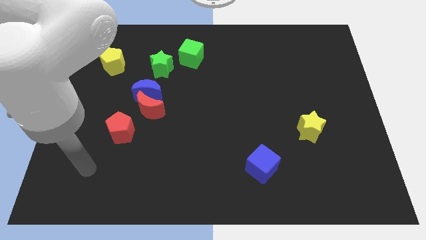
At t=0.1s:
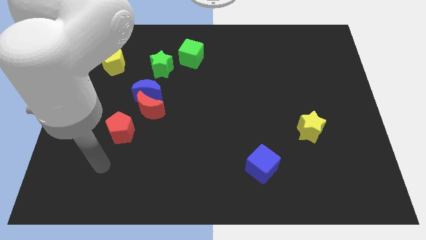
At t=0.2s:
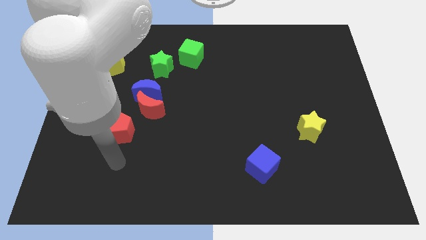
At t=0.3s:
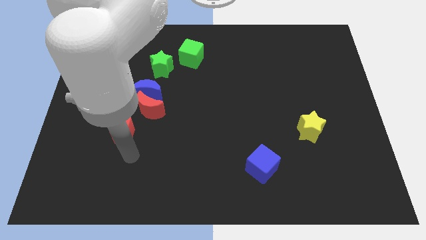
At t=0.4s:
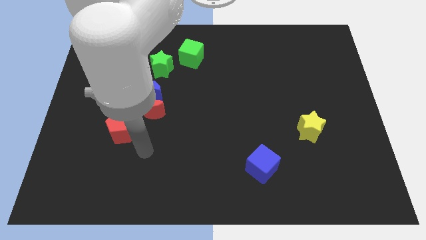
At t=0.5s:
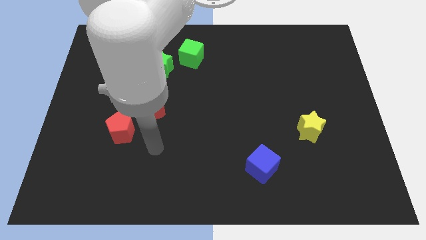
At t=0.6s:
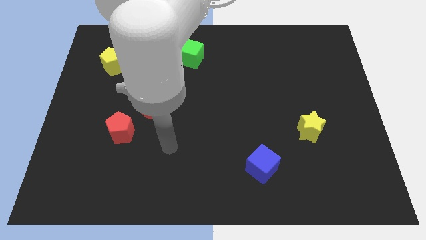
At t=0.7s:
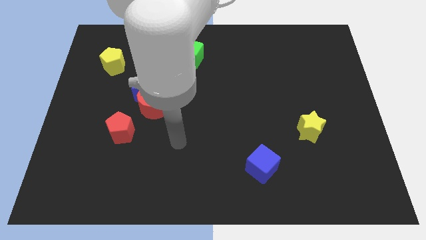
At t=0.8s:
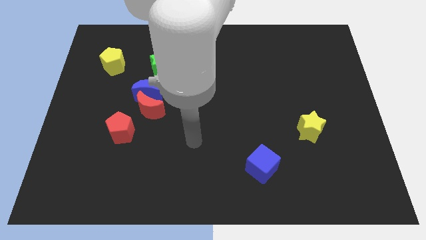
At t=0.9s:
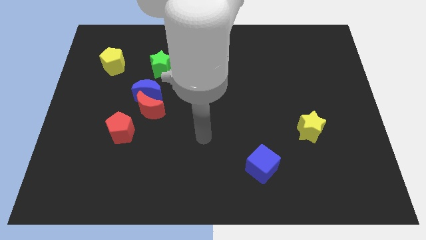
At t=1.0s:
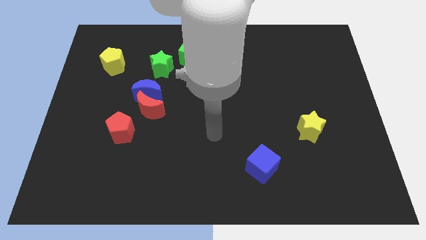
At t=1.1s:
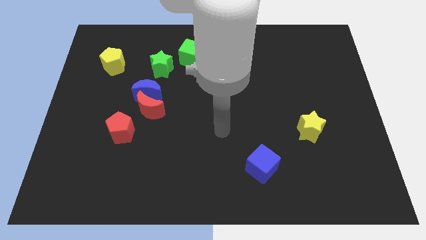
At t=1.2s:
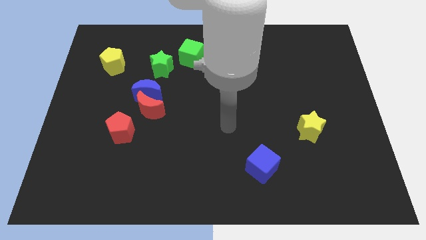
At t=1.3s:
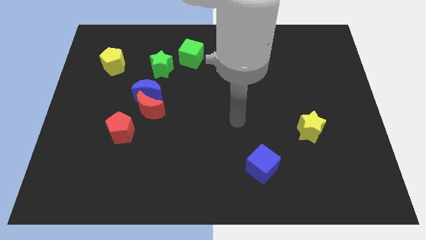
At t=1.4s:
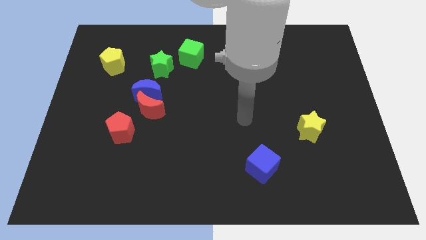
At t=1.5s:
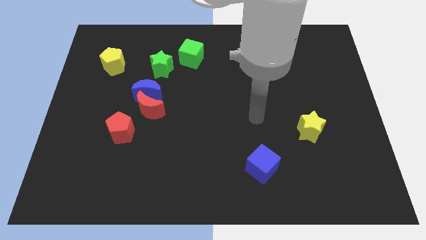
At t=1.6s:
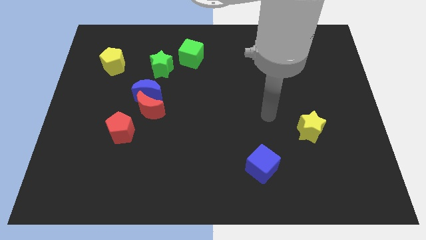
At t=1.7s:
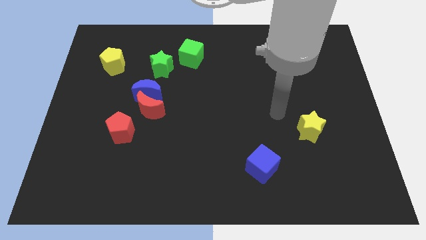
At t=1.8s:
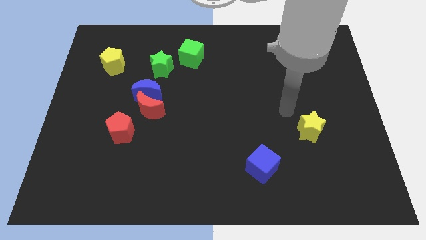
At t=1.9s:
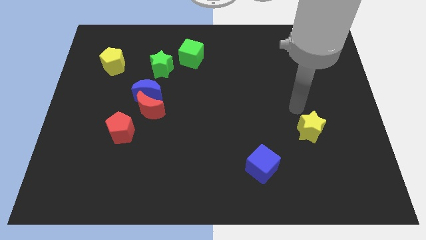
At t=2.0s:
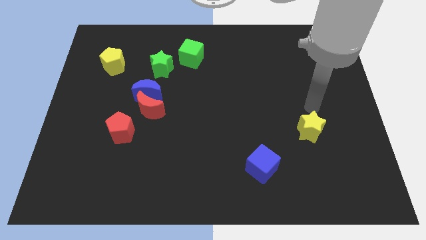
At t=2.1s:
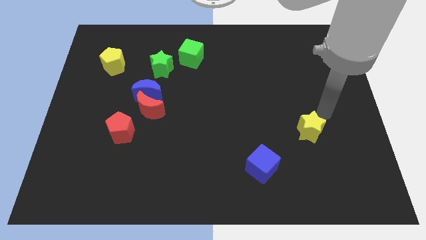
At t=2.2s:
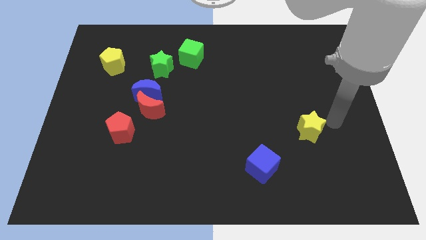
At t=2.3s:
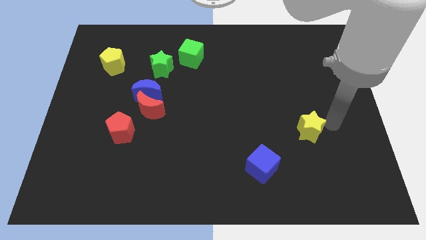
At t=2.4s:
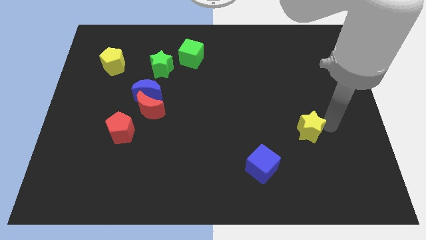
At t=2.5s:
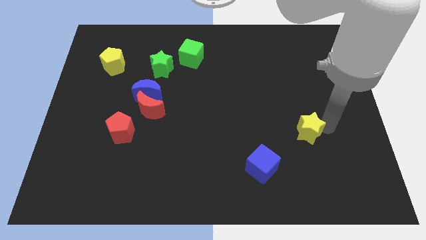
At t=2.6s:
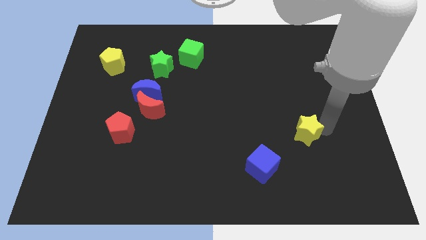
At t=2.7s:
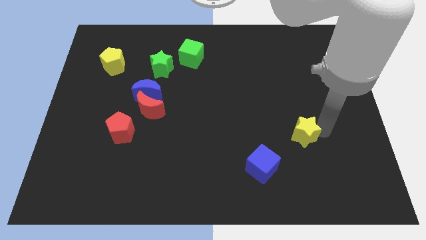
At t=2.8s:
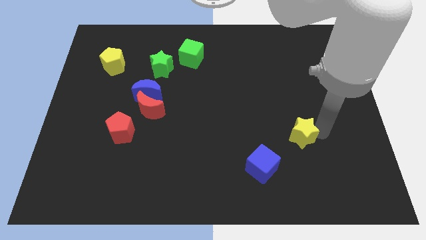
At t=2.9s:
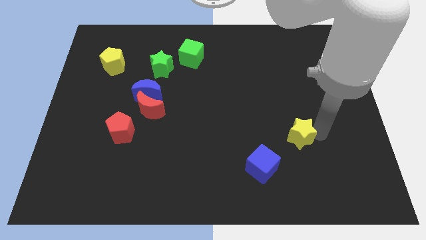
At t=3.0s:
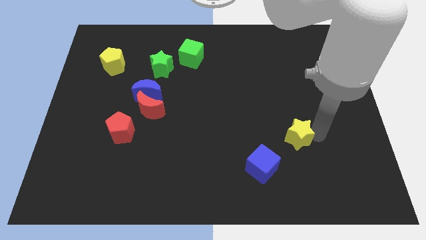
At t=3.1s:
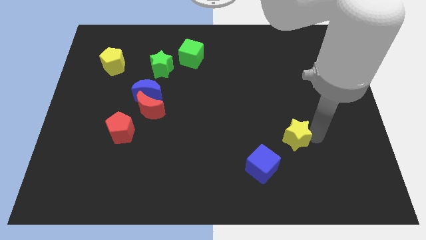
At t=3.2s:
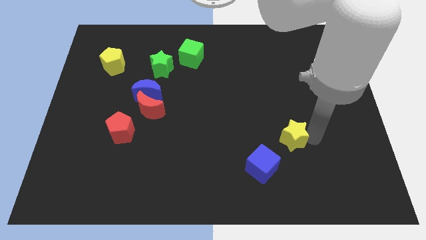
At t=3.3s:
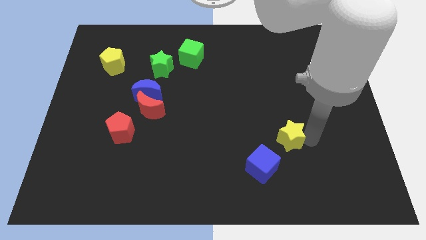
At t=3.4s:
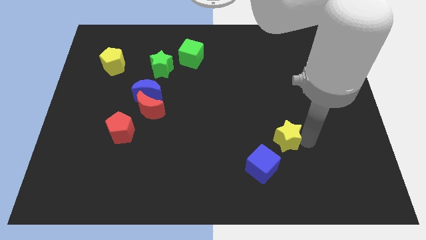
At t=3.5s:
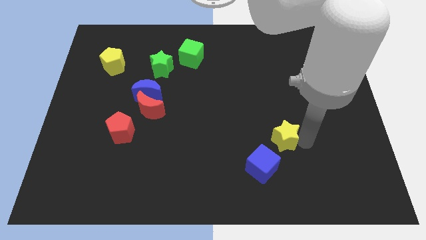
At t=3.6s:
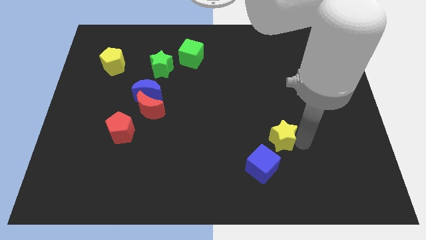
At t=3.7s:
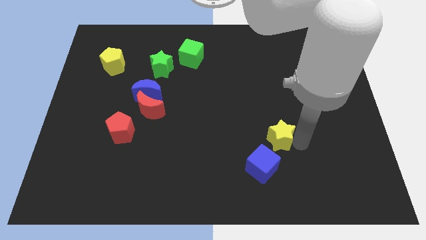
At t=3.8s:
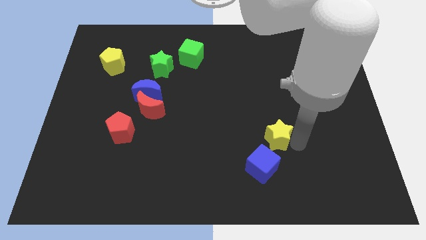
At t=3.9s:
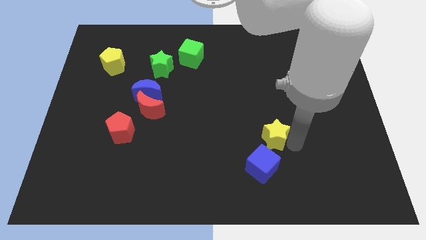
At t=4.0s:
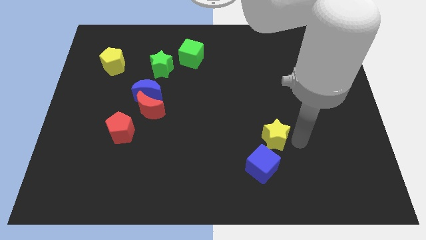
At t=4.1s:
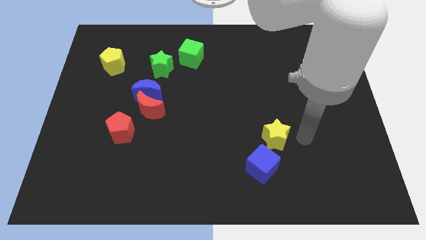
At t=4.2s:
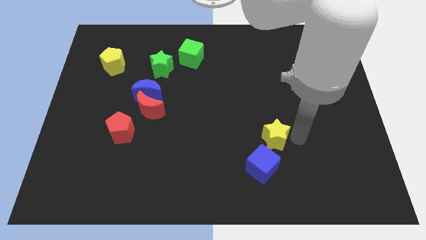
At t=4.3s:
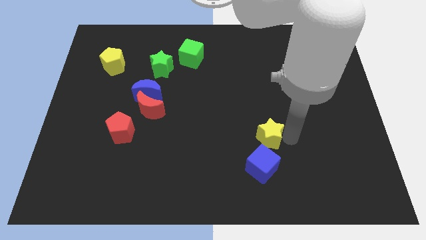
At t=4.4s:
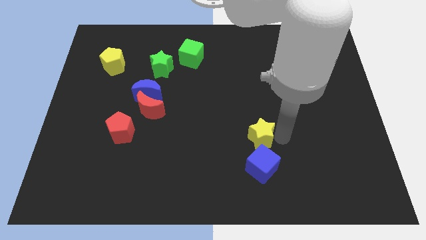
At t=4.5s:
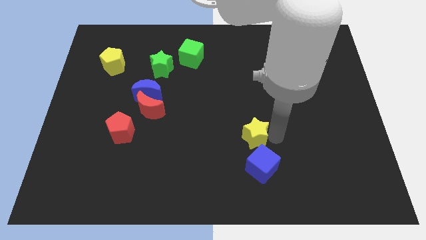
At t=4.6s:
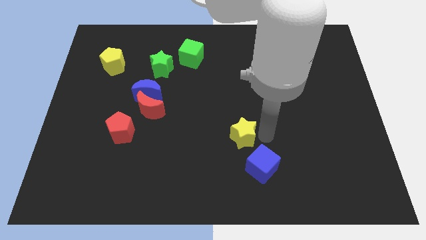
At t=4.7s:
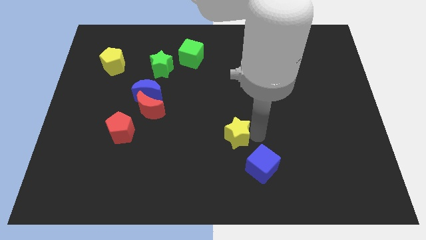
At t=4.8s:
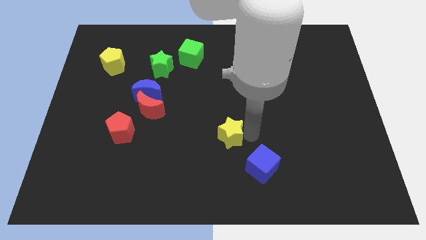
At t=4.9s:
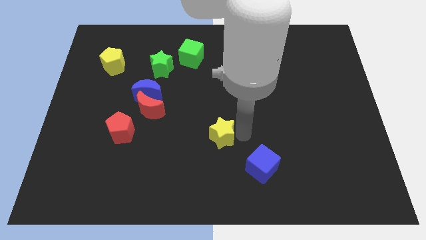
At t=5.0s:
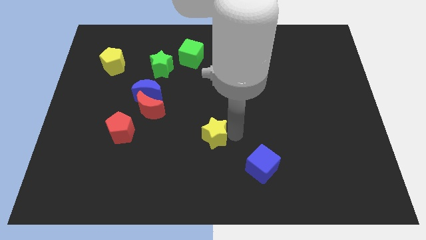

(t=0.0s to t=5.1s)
slide the yellow star to the left

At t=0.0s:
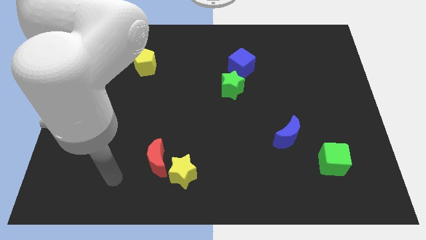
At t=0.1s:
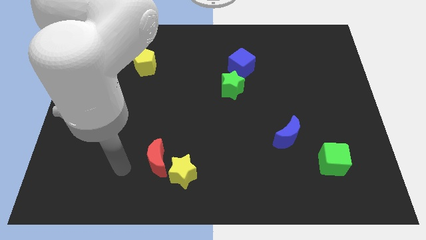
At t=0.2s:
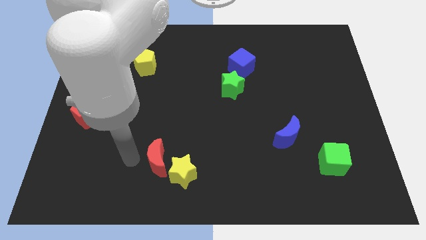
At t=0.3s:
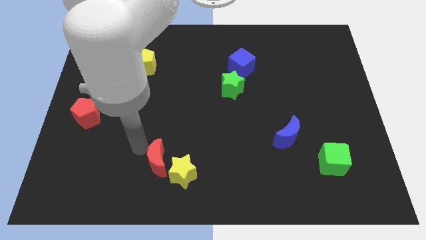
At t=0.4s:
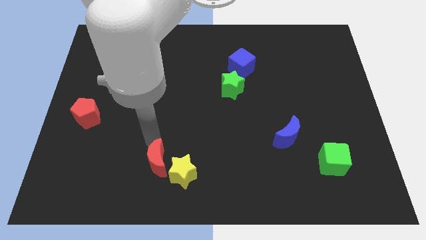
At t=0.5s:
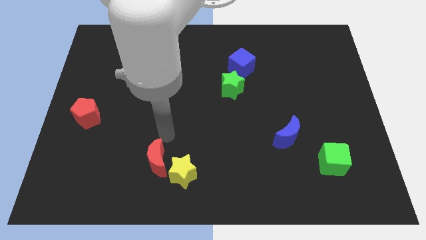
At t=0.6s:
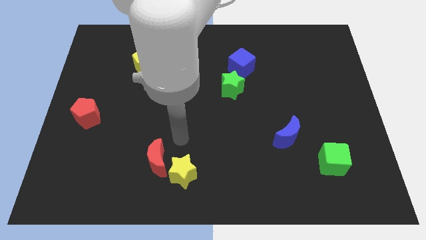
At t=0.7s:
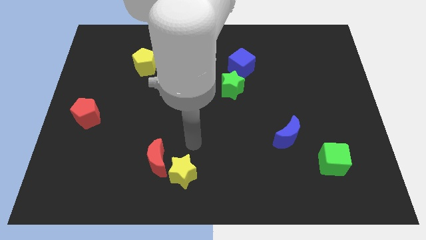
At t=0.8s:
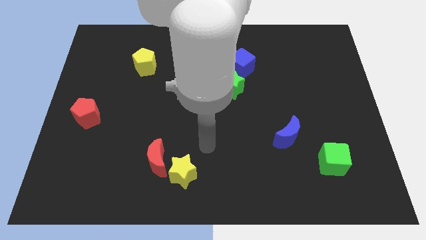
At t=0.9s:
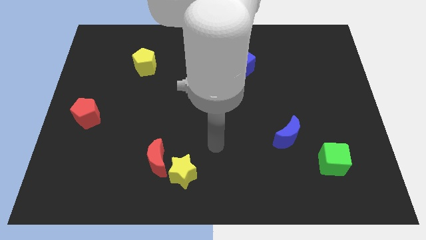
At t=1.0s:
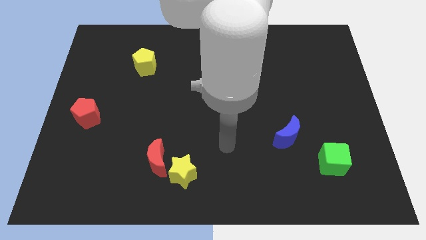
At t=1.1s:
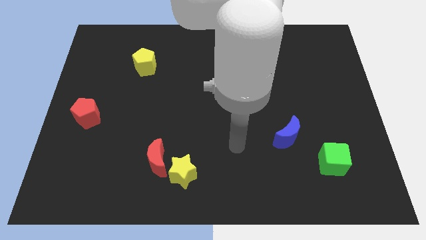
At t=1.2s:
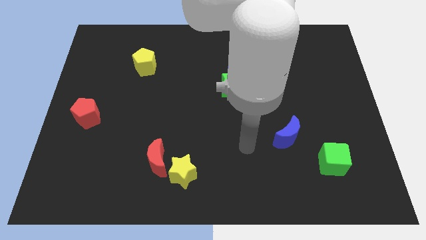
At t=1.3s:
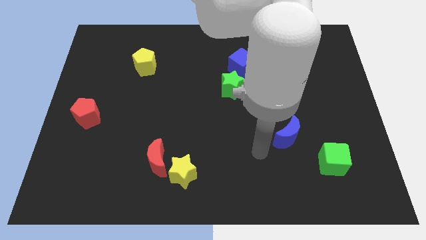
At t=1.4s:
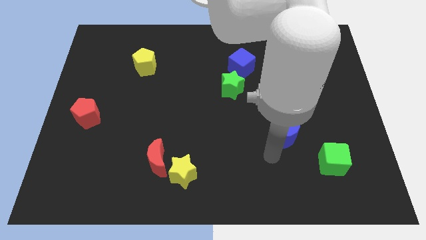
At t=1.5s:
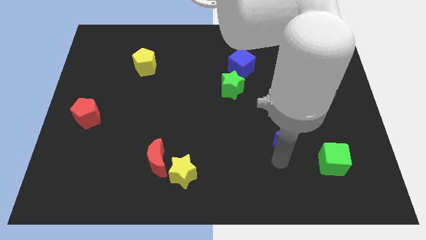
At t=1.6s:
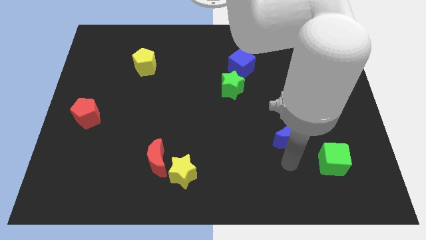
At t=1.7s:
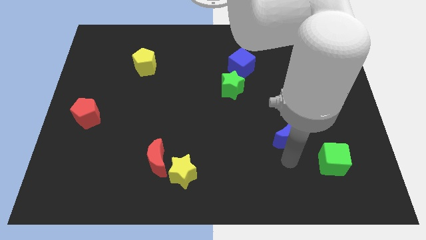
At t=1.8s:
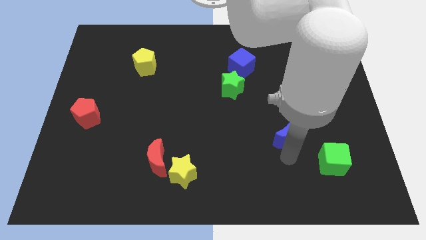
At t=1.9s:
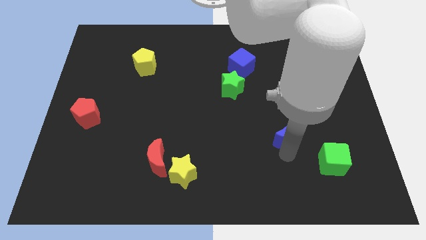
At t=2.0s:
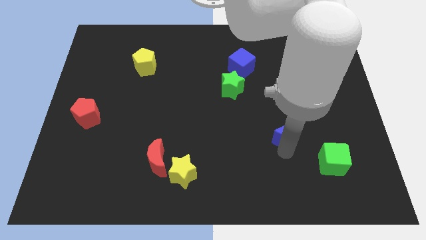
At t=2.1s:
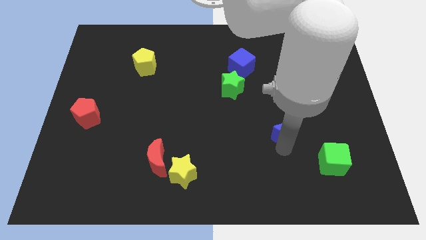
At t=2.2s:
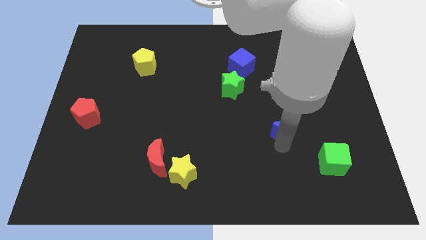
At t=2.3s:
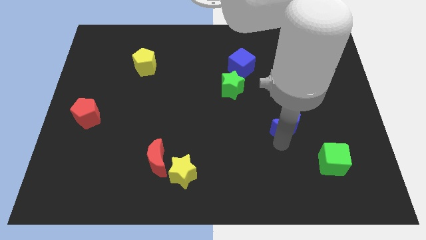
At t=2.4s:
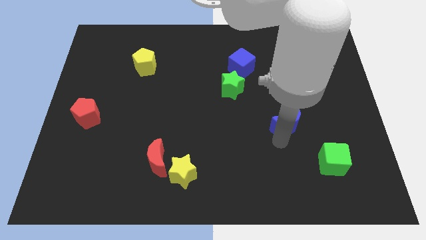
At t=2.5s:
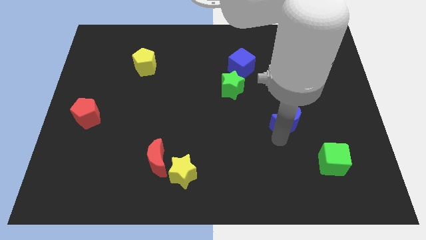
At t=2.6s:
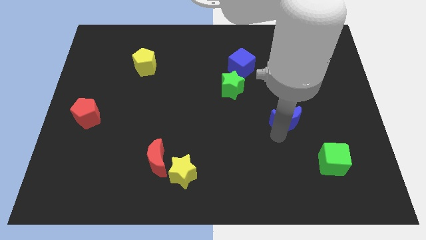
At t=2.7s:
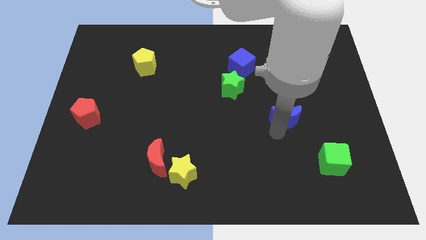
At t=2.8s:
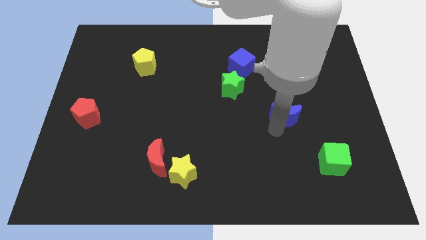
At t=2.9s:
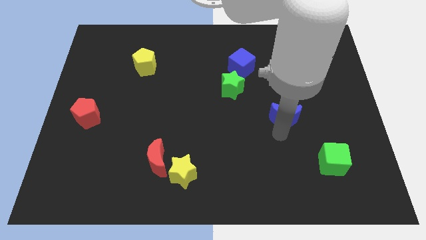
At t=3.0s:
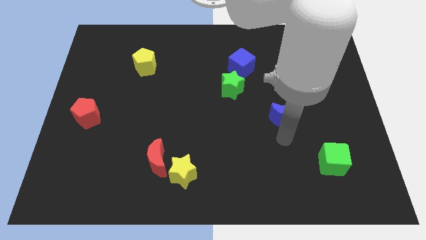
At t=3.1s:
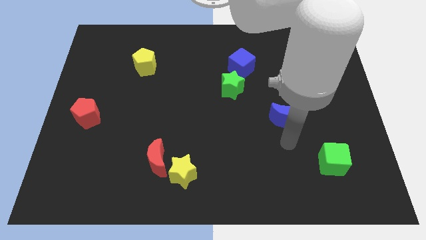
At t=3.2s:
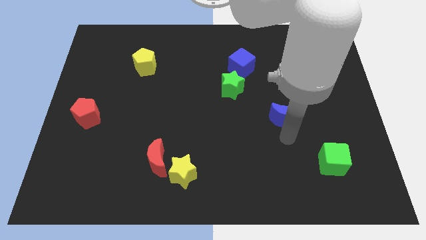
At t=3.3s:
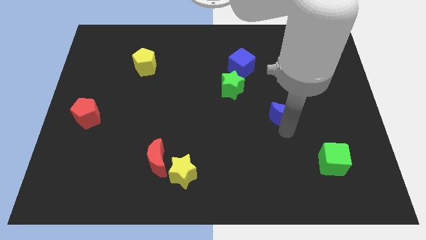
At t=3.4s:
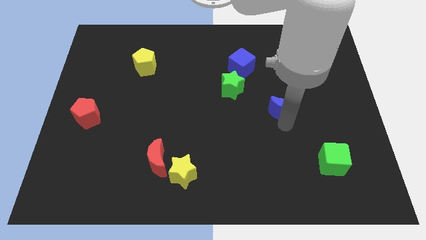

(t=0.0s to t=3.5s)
push the blue moon a little upwards
